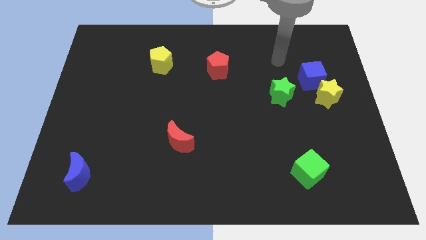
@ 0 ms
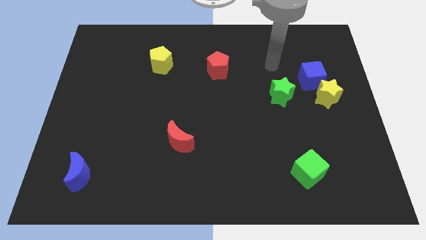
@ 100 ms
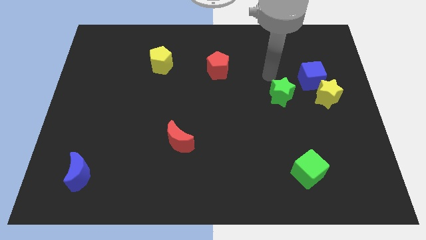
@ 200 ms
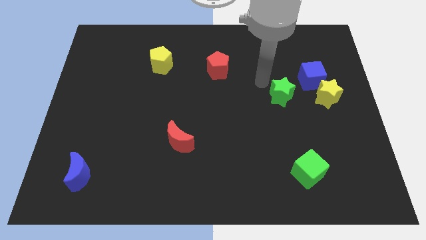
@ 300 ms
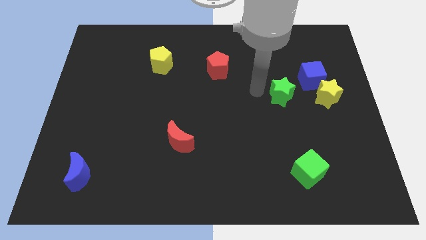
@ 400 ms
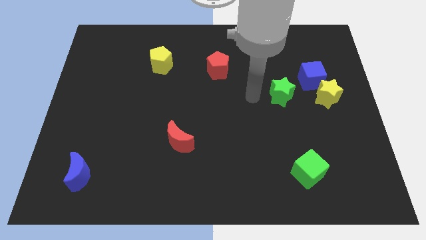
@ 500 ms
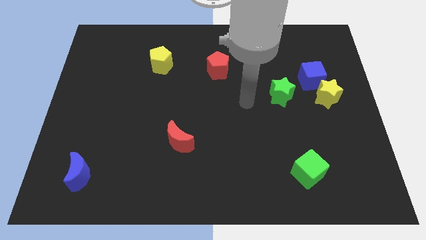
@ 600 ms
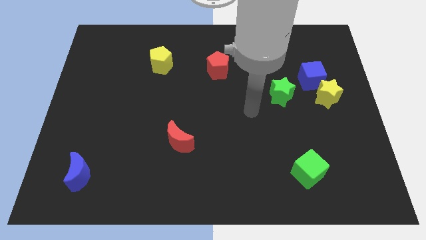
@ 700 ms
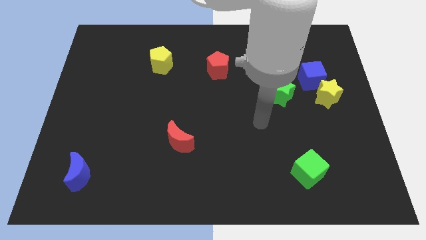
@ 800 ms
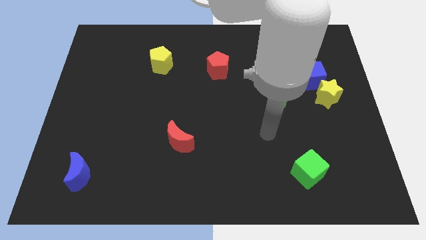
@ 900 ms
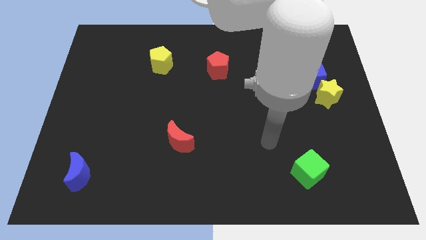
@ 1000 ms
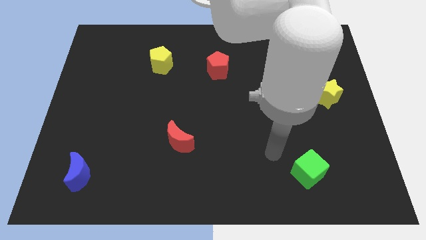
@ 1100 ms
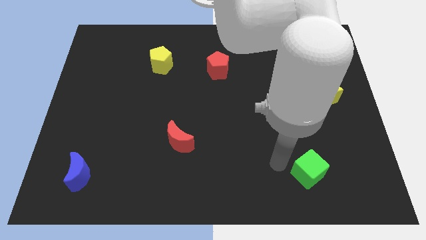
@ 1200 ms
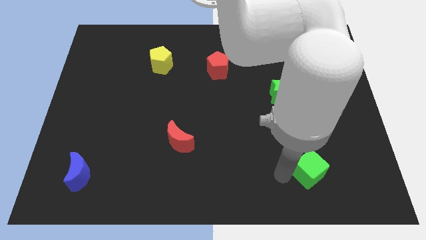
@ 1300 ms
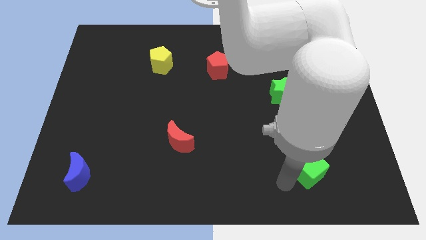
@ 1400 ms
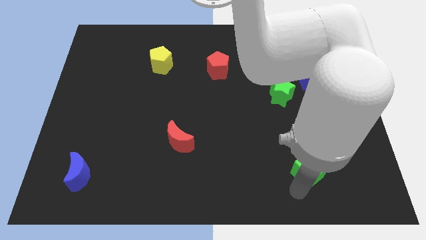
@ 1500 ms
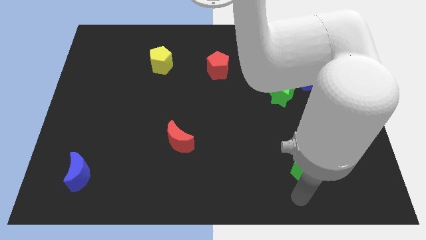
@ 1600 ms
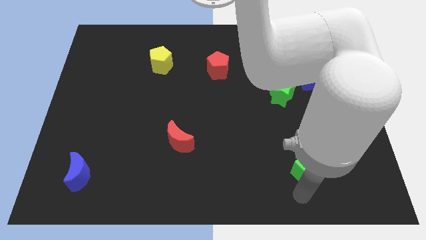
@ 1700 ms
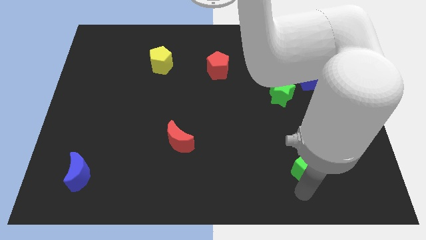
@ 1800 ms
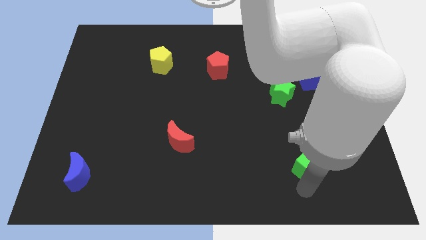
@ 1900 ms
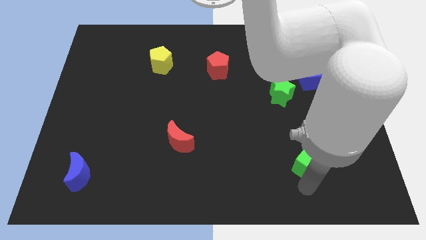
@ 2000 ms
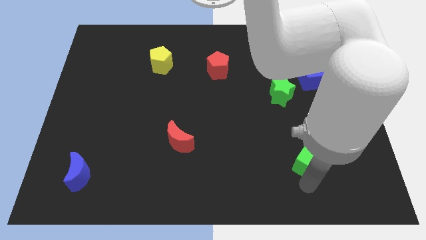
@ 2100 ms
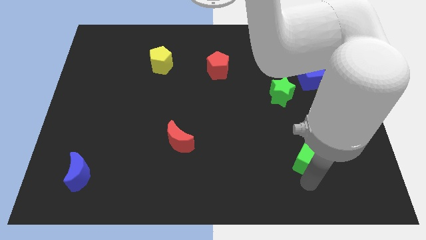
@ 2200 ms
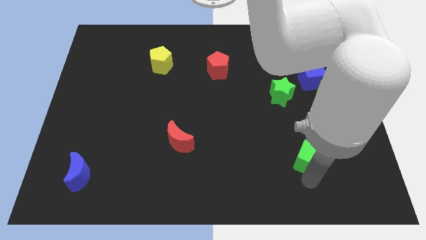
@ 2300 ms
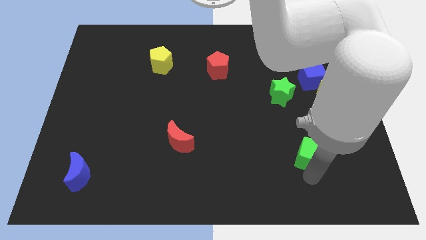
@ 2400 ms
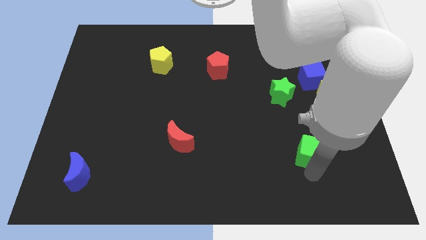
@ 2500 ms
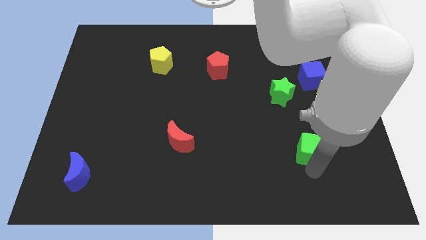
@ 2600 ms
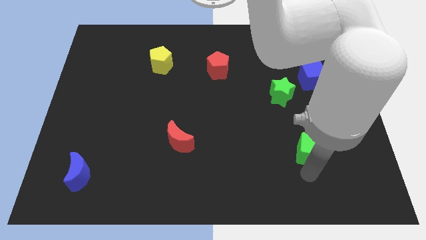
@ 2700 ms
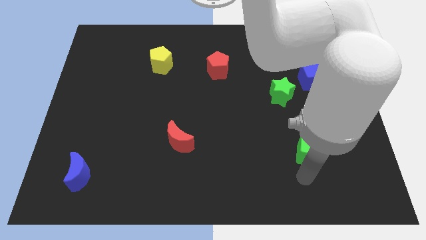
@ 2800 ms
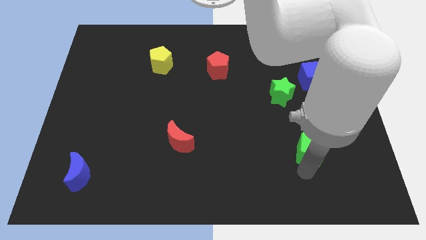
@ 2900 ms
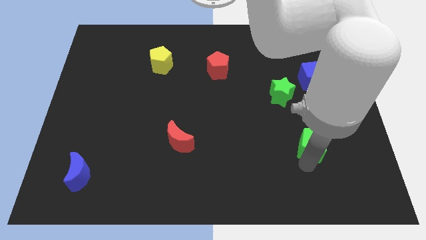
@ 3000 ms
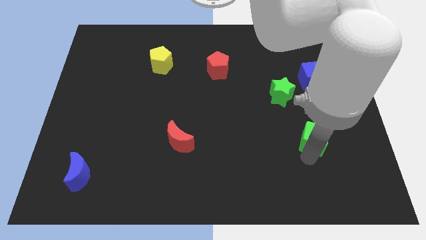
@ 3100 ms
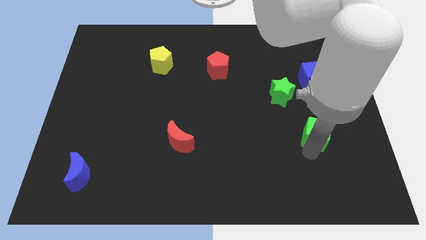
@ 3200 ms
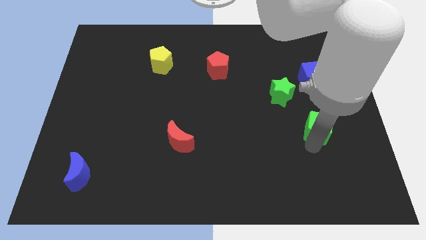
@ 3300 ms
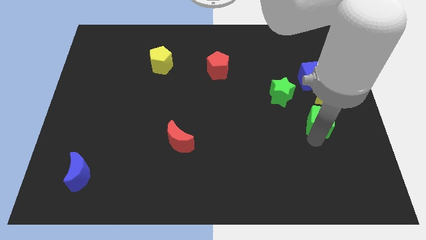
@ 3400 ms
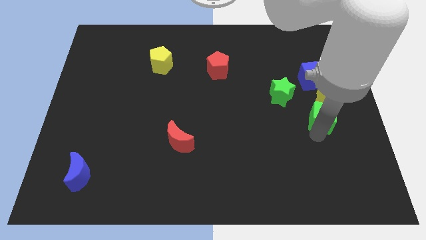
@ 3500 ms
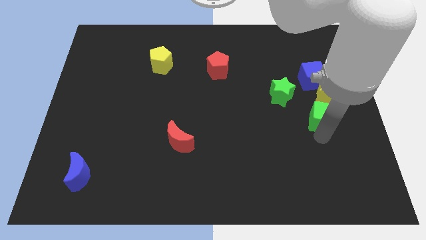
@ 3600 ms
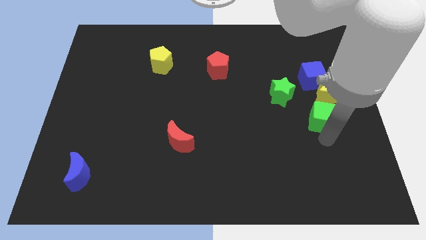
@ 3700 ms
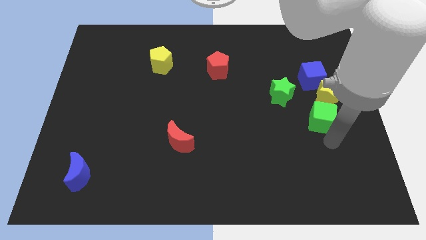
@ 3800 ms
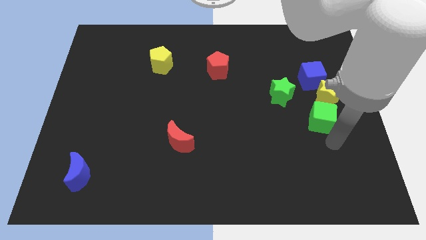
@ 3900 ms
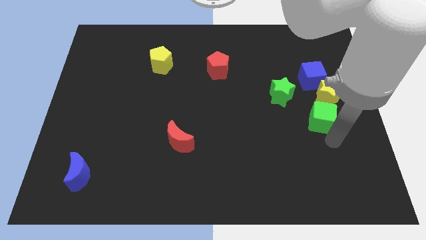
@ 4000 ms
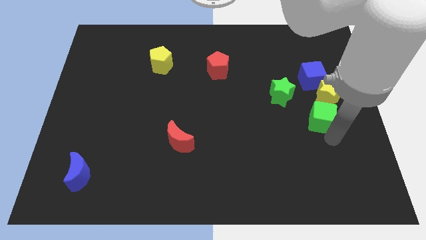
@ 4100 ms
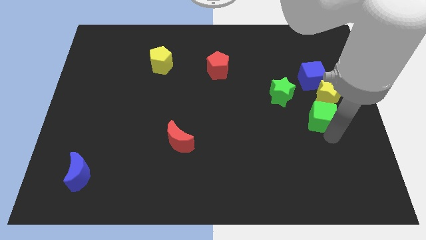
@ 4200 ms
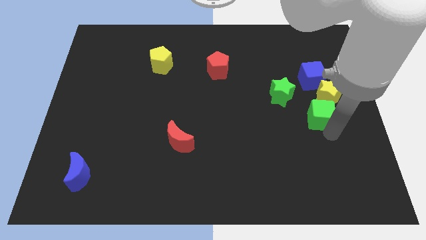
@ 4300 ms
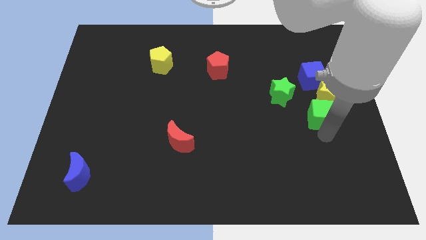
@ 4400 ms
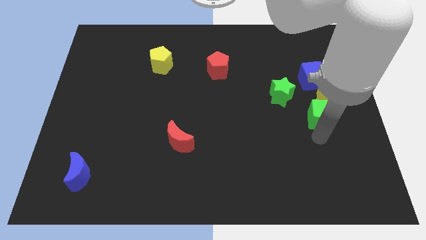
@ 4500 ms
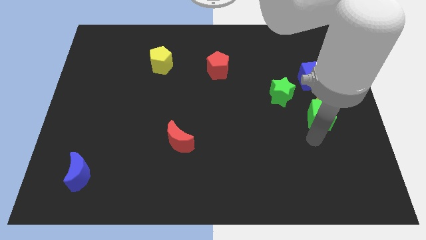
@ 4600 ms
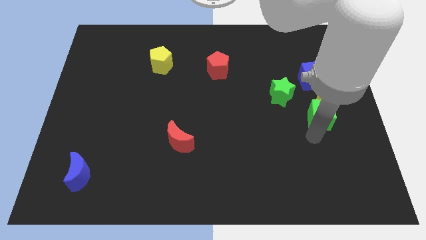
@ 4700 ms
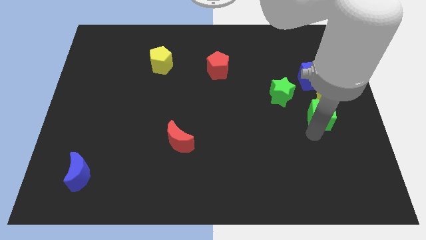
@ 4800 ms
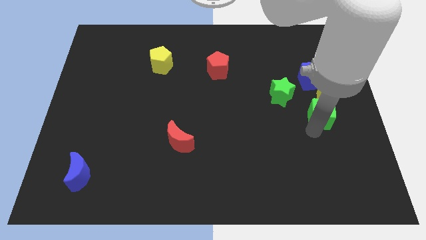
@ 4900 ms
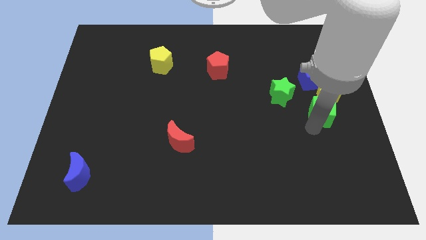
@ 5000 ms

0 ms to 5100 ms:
slide the green cube to the yellow star

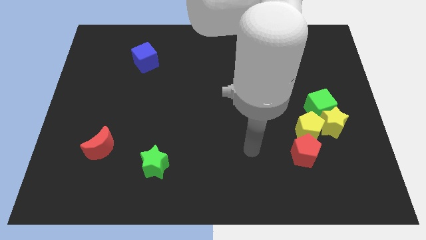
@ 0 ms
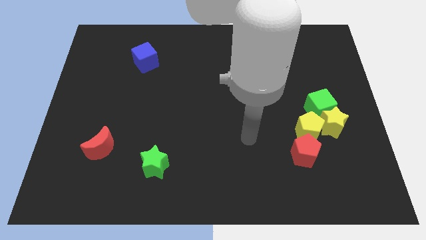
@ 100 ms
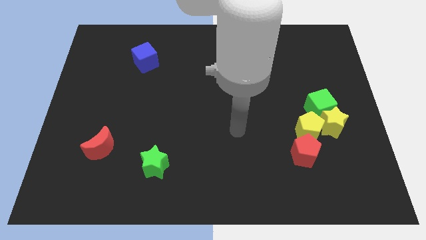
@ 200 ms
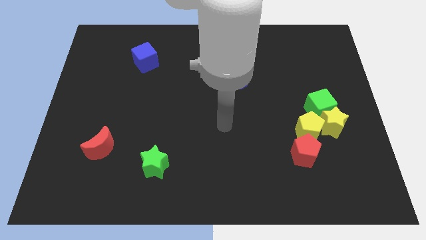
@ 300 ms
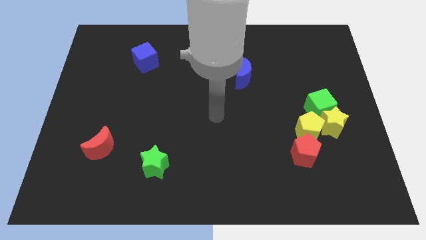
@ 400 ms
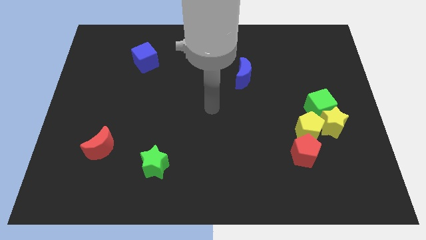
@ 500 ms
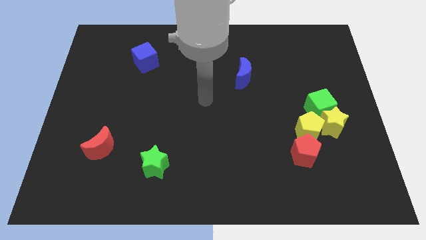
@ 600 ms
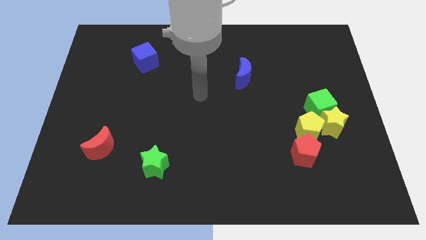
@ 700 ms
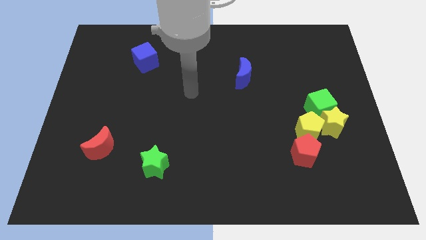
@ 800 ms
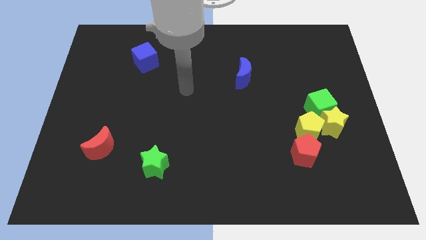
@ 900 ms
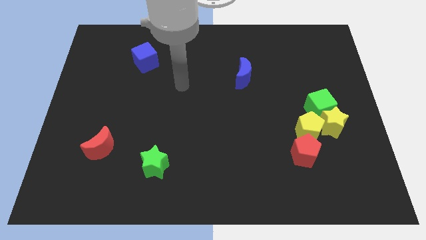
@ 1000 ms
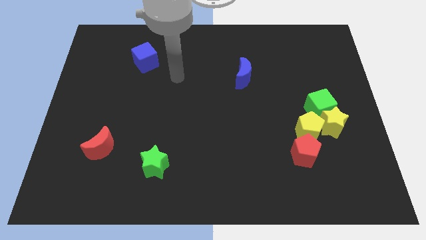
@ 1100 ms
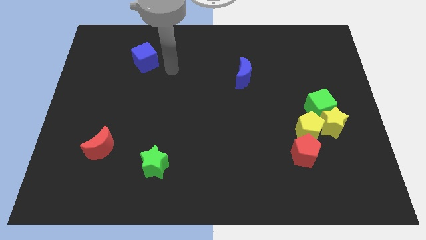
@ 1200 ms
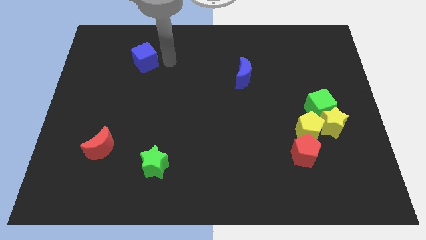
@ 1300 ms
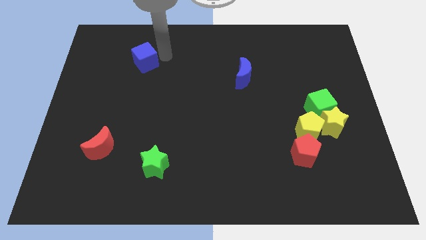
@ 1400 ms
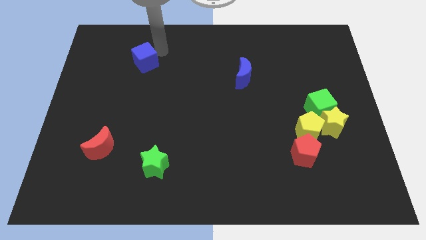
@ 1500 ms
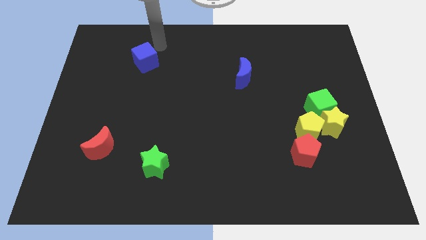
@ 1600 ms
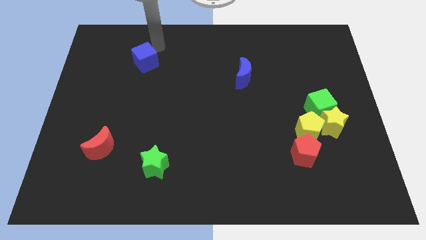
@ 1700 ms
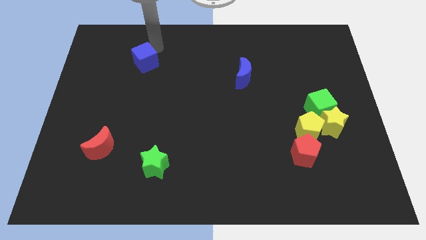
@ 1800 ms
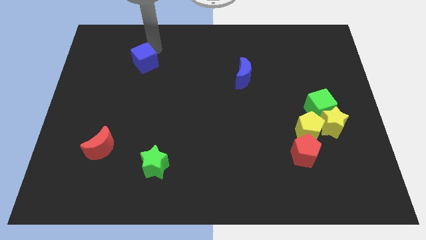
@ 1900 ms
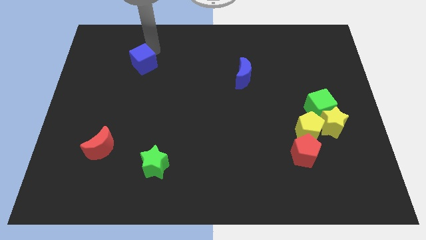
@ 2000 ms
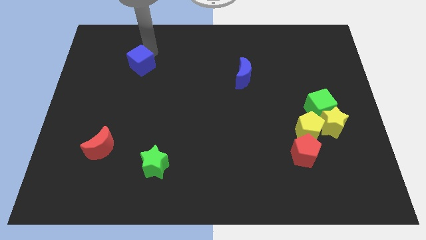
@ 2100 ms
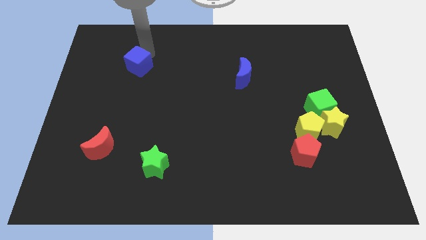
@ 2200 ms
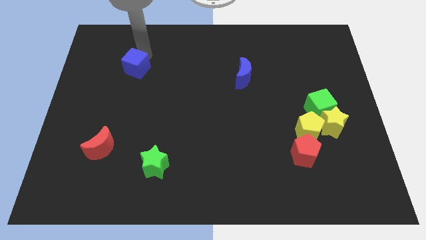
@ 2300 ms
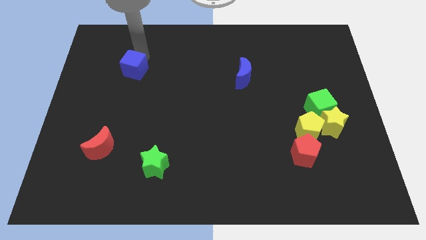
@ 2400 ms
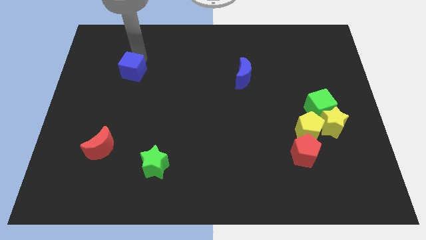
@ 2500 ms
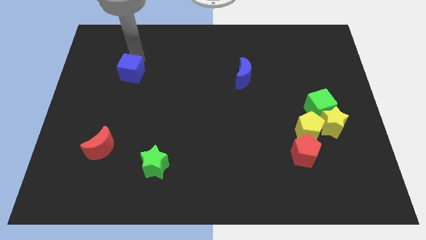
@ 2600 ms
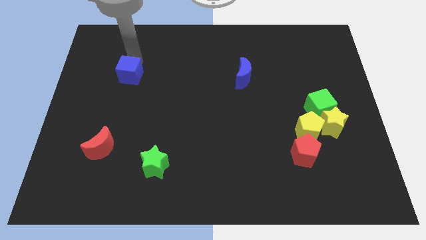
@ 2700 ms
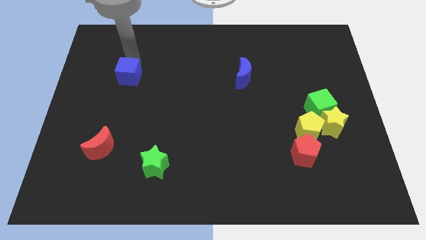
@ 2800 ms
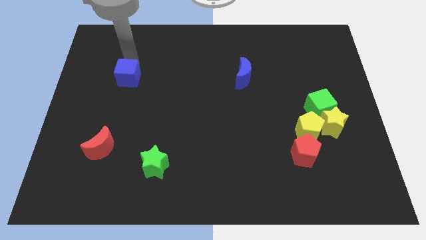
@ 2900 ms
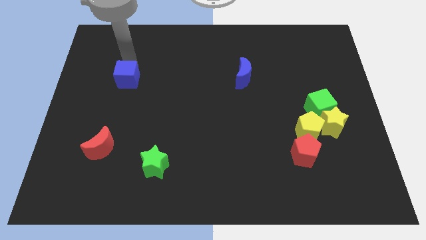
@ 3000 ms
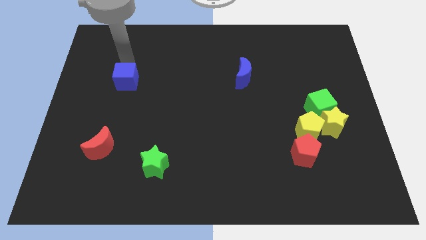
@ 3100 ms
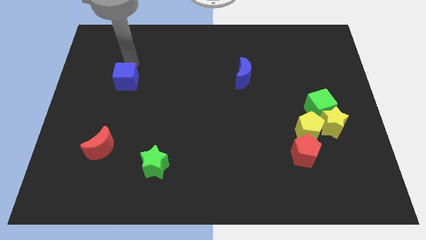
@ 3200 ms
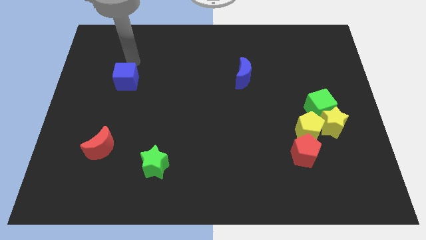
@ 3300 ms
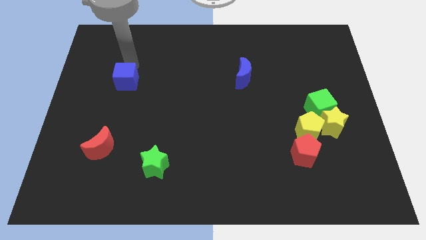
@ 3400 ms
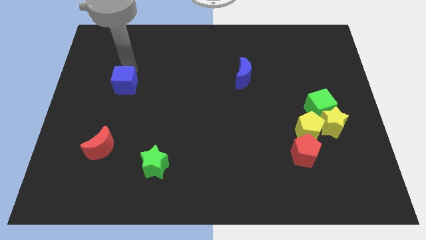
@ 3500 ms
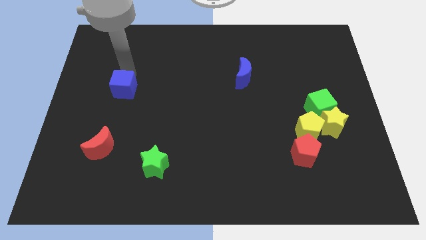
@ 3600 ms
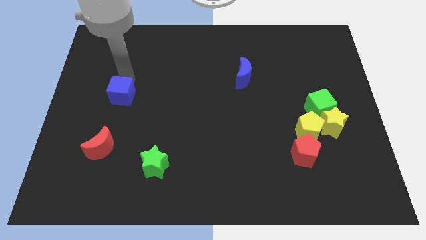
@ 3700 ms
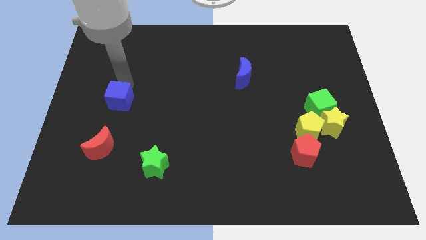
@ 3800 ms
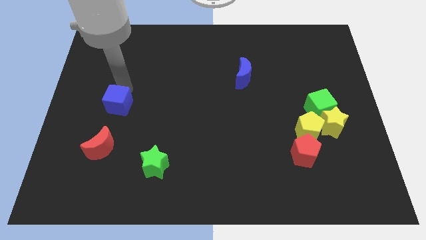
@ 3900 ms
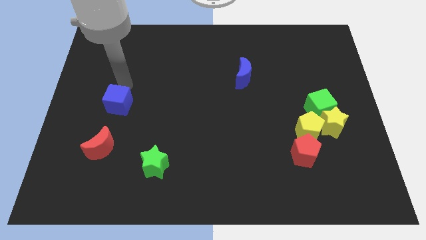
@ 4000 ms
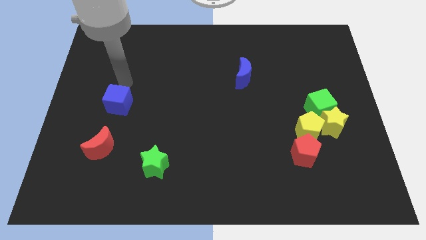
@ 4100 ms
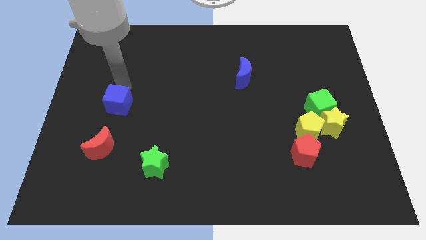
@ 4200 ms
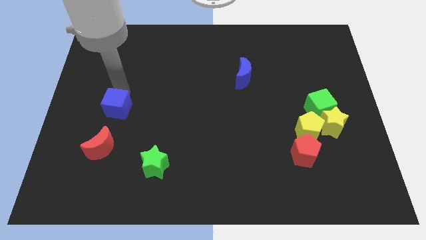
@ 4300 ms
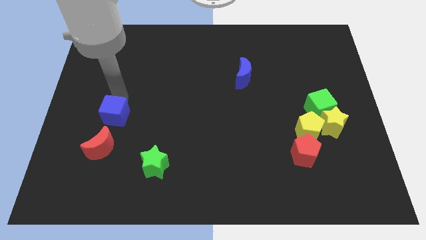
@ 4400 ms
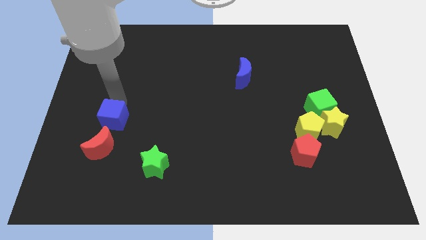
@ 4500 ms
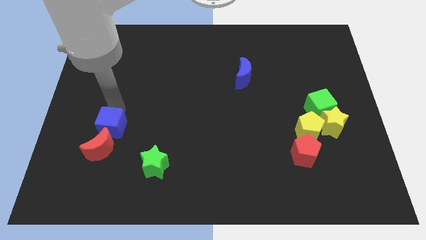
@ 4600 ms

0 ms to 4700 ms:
move the blue cube next to the red moon
